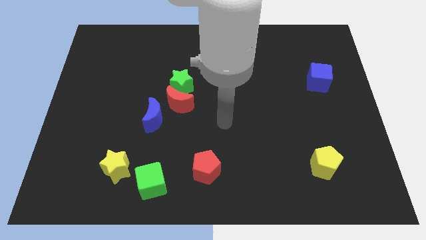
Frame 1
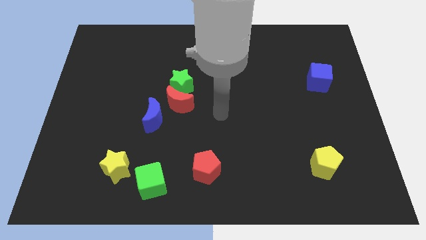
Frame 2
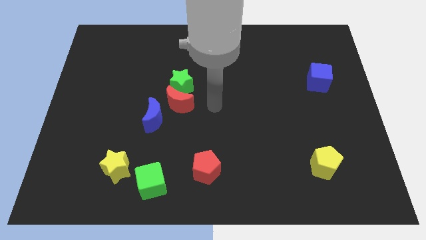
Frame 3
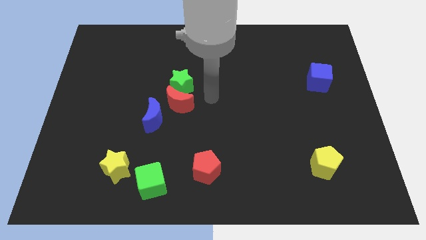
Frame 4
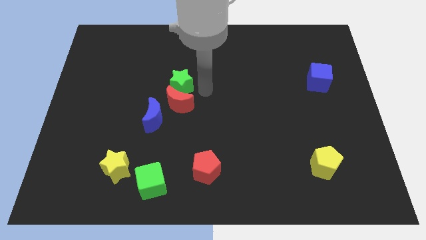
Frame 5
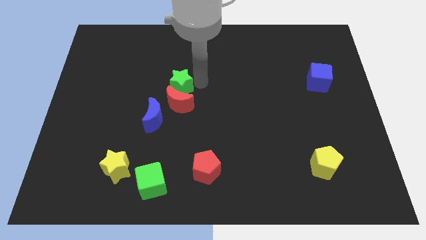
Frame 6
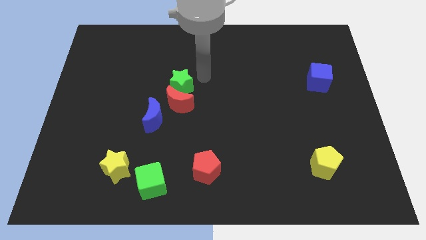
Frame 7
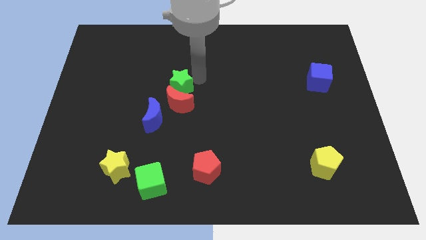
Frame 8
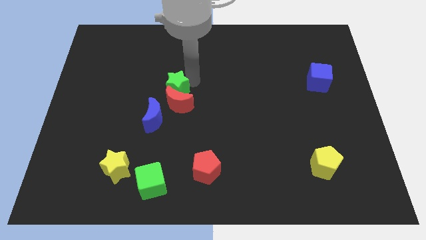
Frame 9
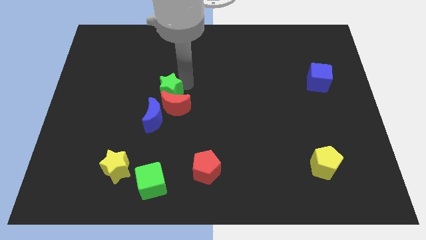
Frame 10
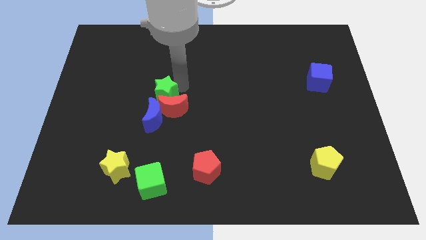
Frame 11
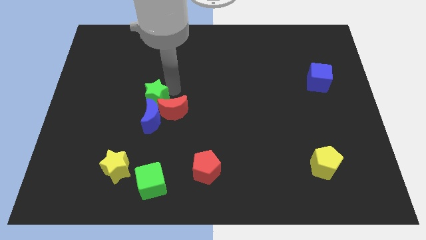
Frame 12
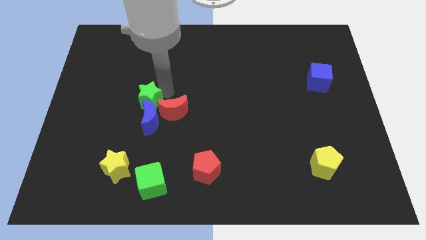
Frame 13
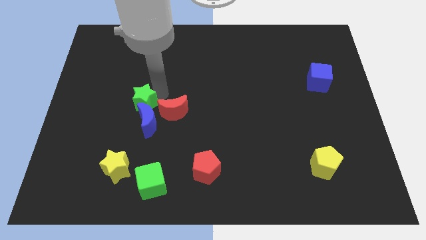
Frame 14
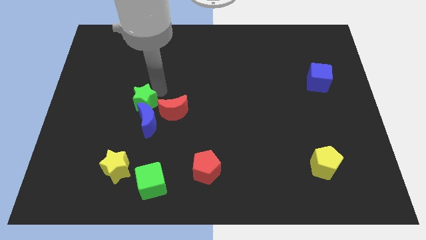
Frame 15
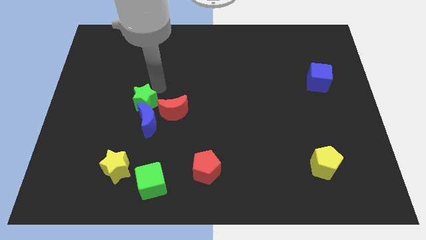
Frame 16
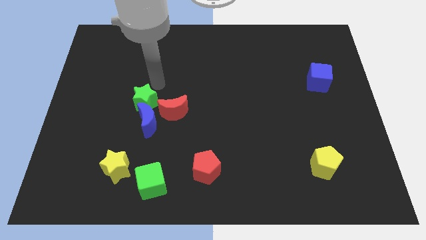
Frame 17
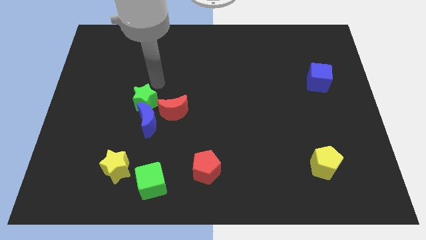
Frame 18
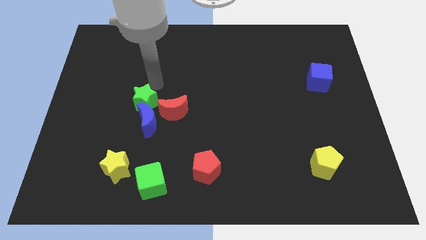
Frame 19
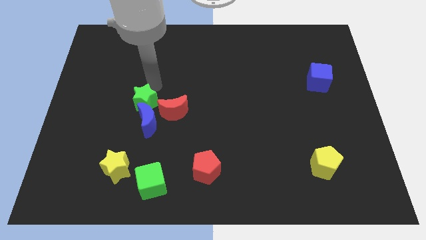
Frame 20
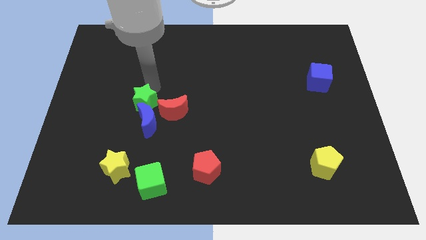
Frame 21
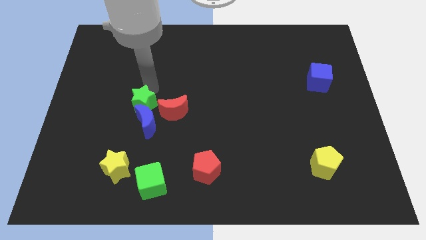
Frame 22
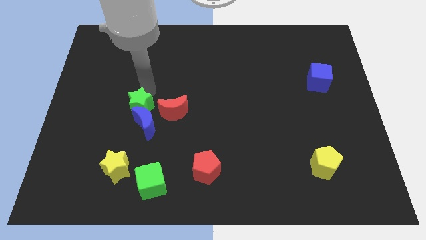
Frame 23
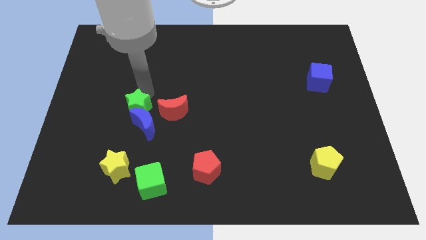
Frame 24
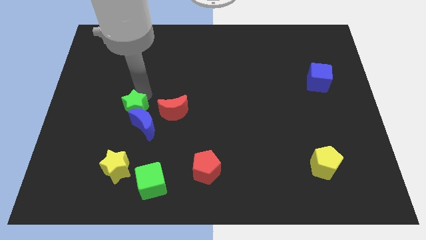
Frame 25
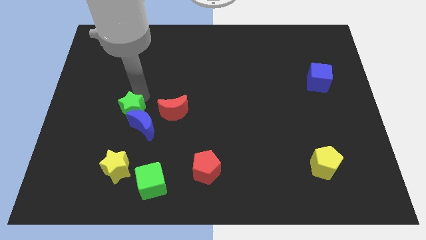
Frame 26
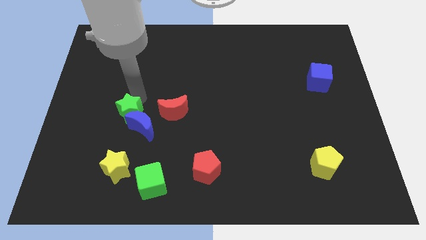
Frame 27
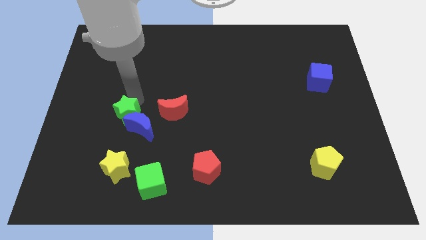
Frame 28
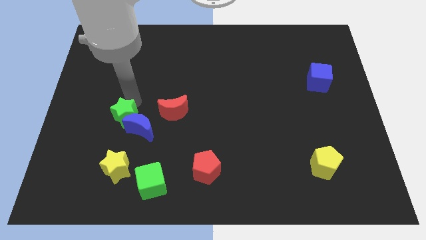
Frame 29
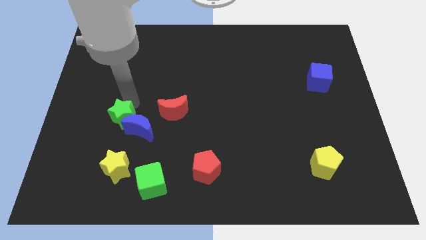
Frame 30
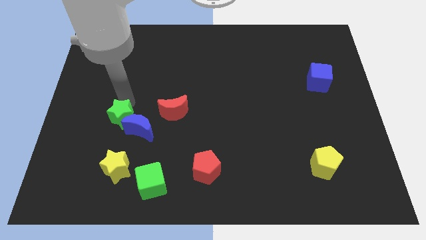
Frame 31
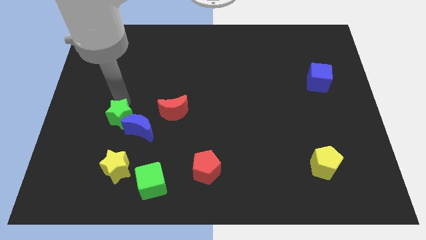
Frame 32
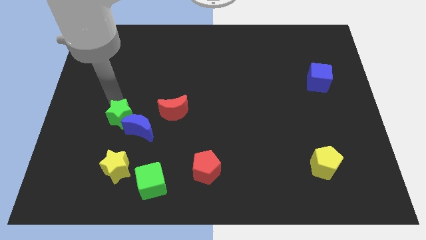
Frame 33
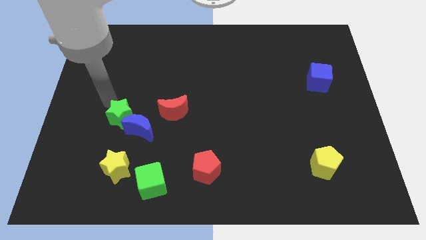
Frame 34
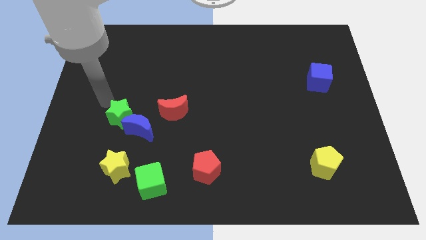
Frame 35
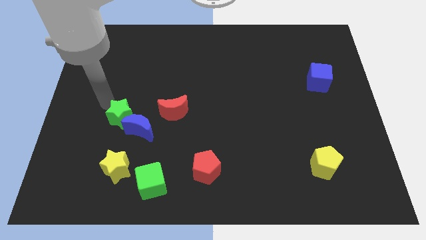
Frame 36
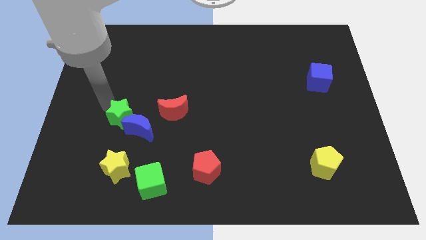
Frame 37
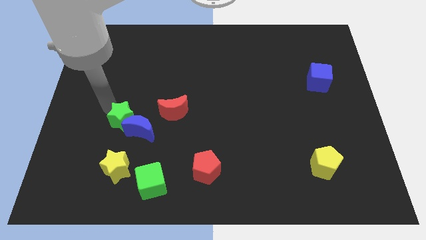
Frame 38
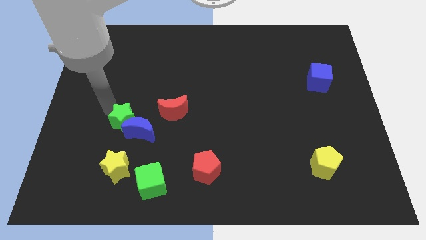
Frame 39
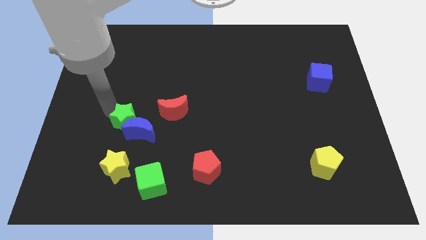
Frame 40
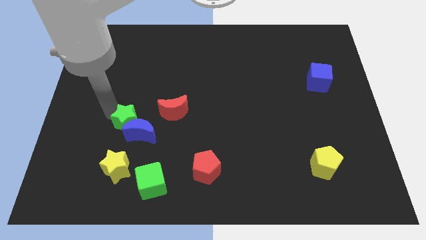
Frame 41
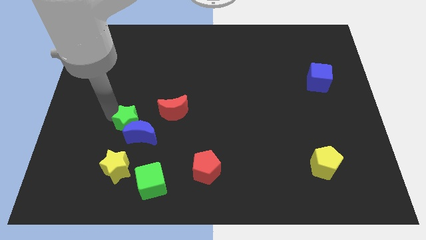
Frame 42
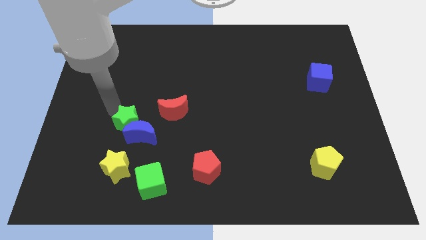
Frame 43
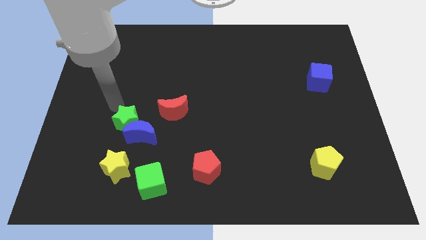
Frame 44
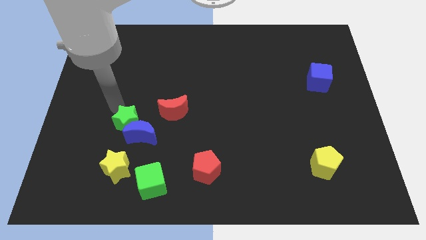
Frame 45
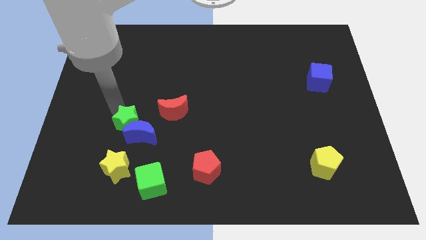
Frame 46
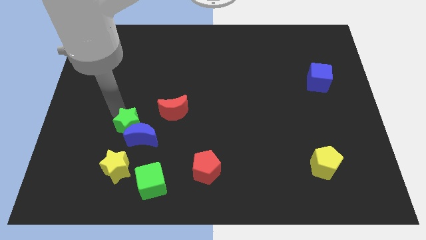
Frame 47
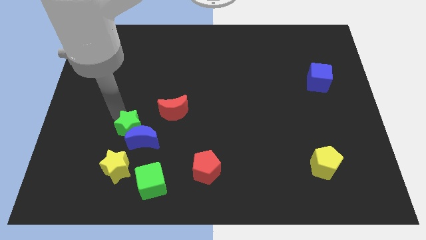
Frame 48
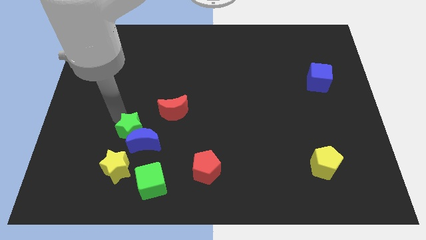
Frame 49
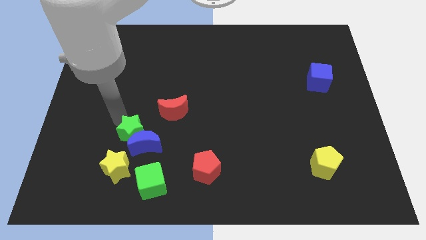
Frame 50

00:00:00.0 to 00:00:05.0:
move the green star to the top right of the yellow star

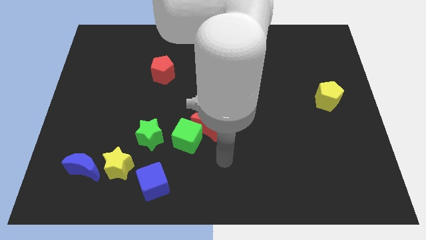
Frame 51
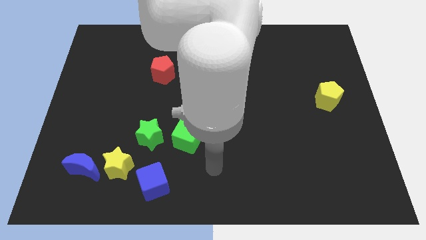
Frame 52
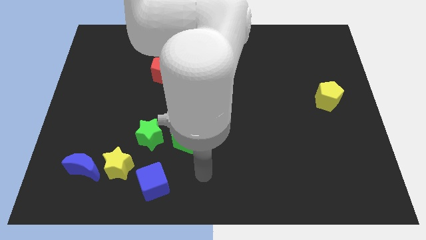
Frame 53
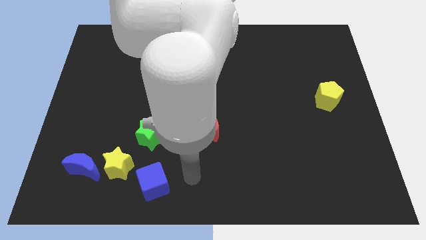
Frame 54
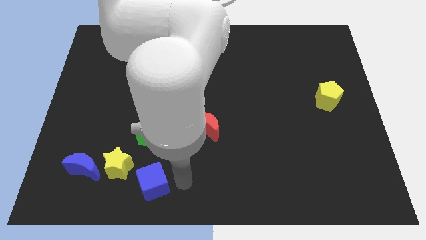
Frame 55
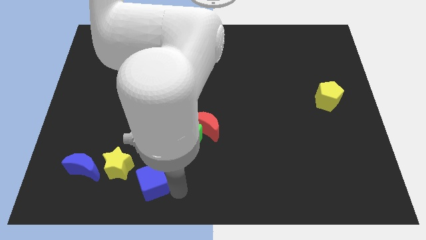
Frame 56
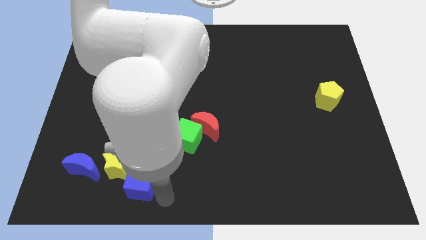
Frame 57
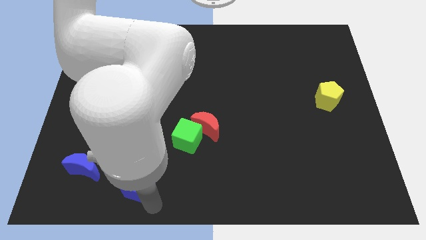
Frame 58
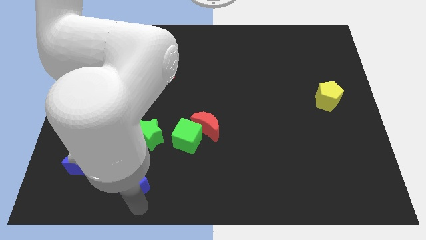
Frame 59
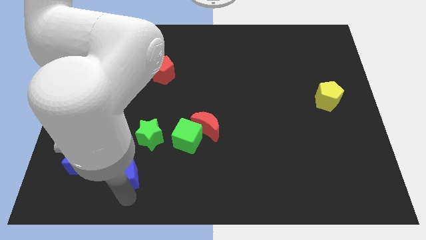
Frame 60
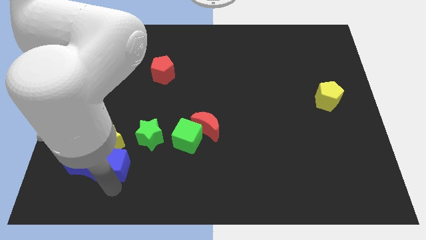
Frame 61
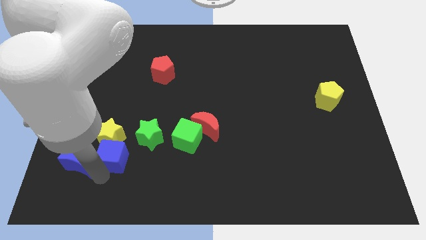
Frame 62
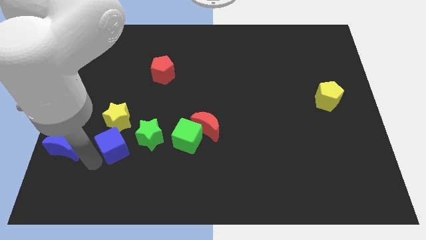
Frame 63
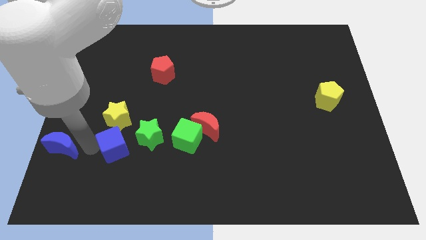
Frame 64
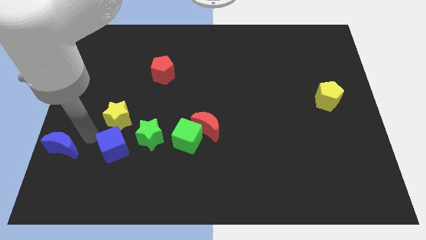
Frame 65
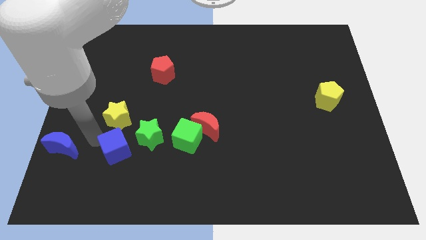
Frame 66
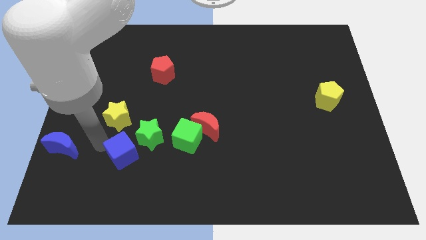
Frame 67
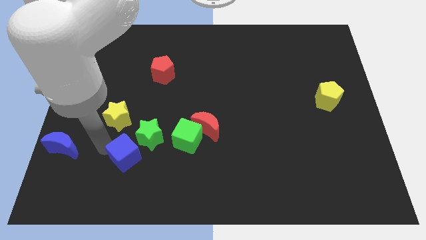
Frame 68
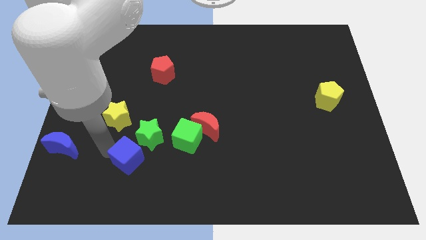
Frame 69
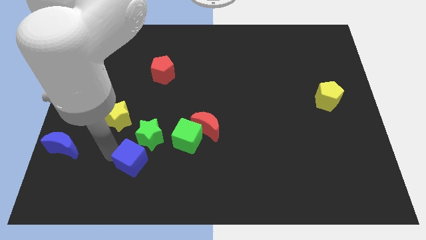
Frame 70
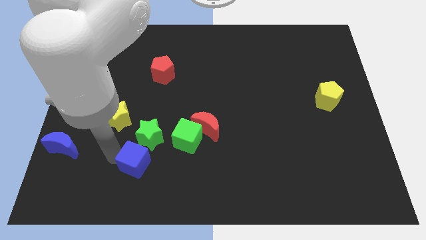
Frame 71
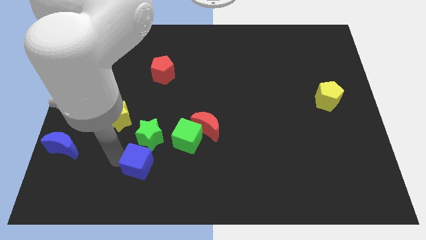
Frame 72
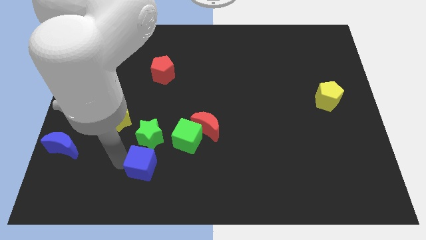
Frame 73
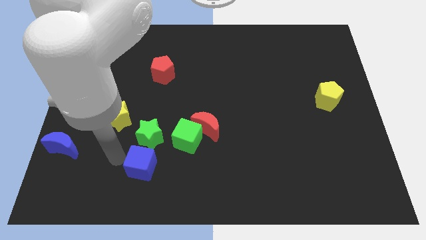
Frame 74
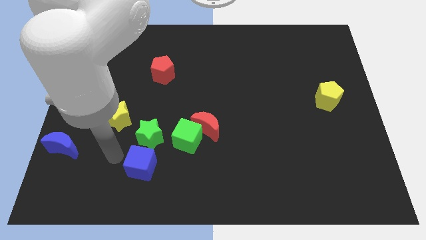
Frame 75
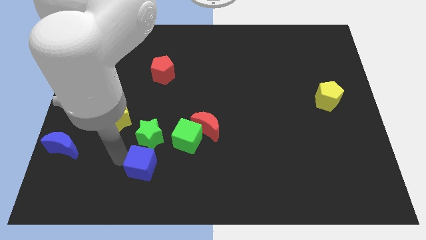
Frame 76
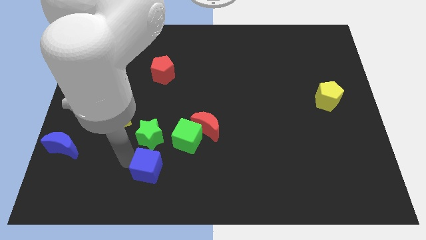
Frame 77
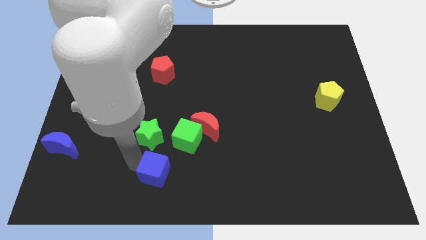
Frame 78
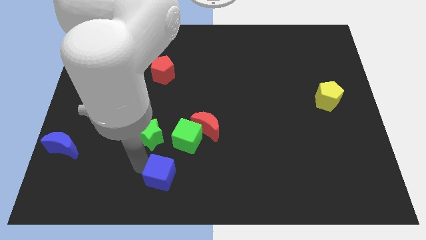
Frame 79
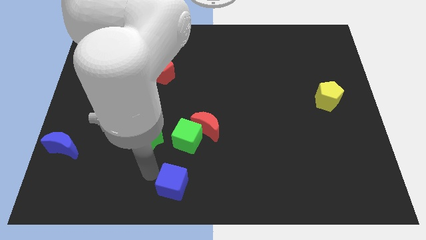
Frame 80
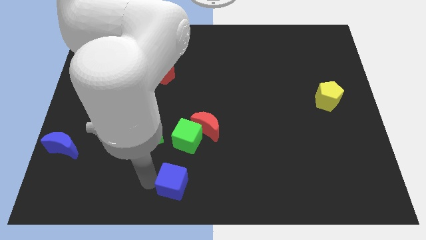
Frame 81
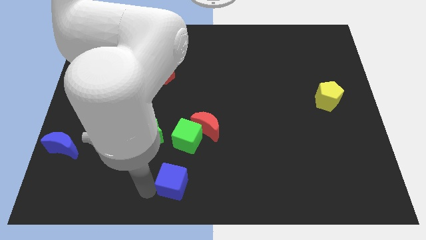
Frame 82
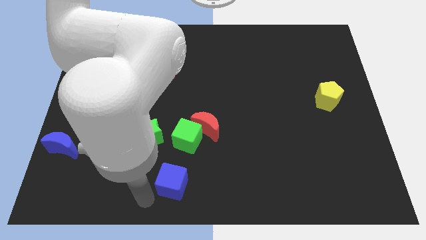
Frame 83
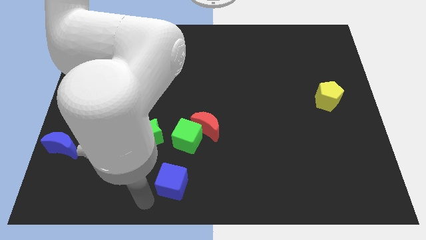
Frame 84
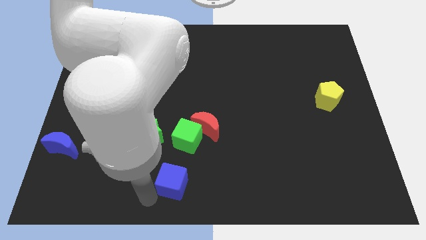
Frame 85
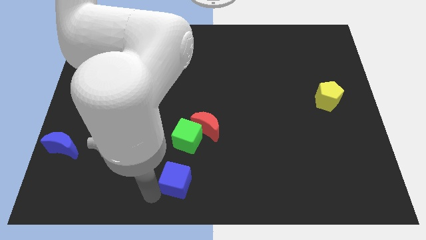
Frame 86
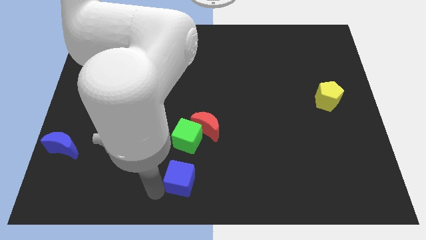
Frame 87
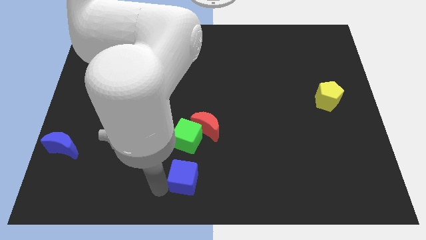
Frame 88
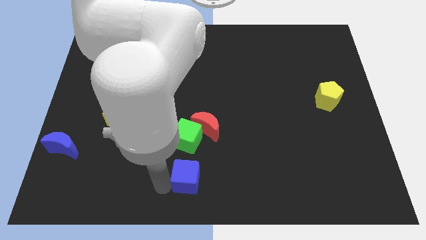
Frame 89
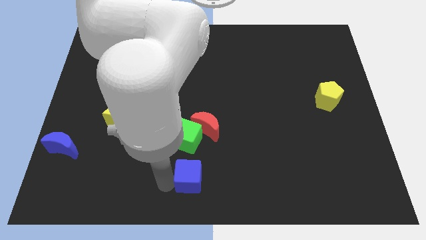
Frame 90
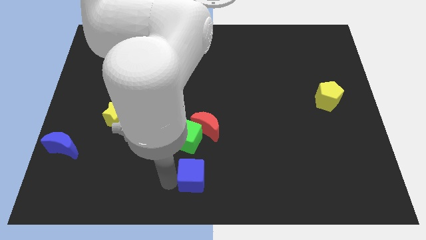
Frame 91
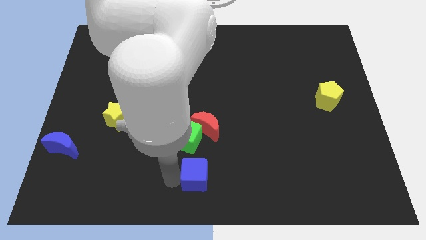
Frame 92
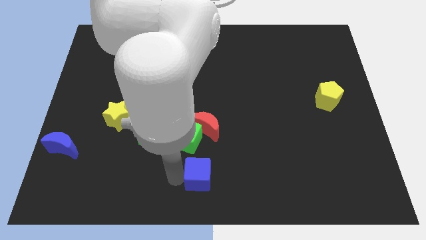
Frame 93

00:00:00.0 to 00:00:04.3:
put the blue cube to the bottom right of the green cube
